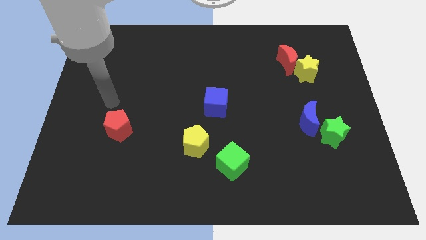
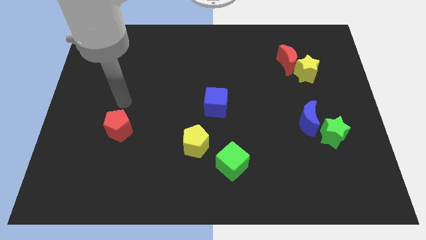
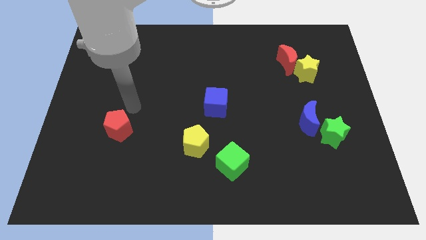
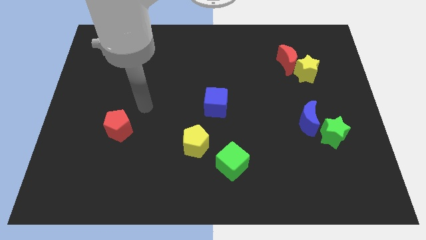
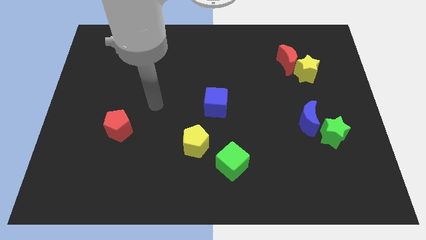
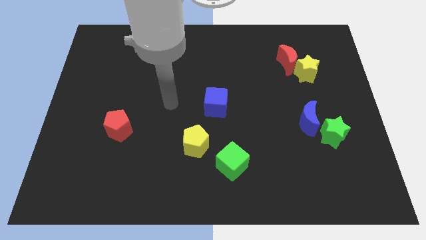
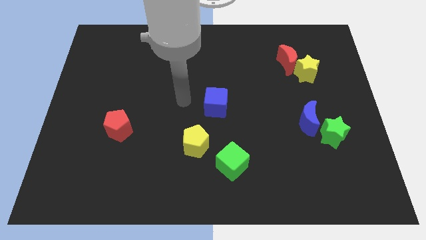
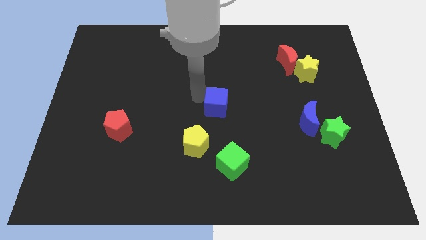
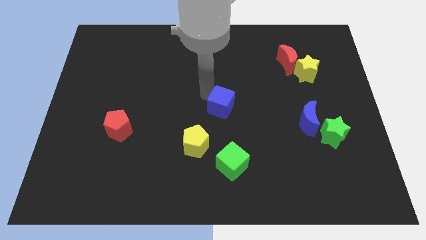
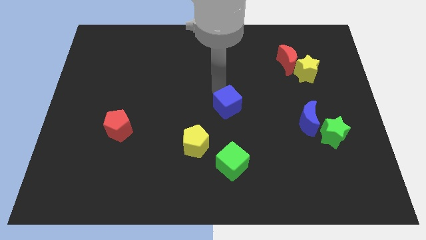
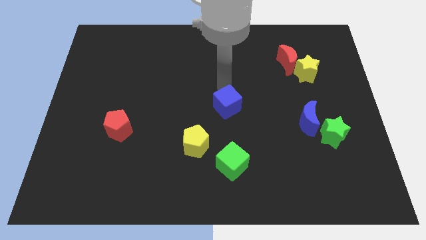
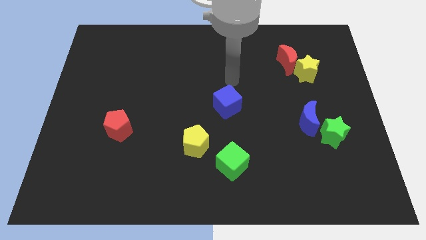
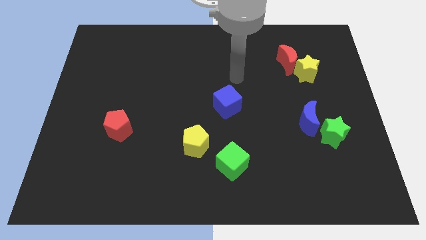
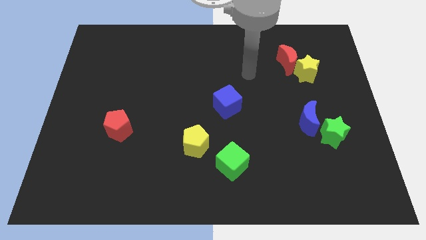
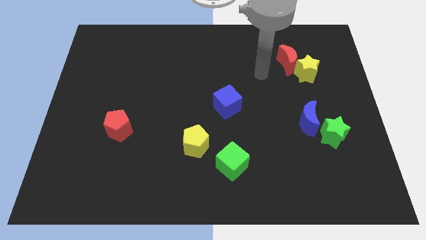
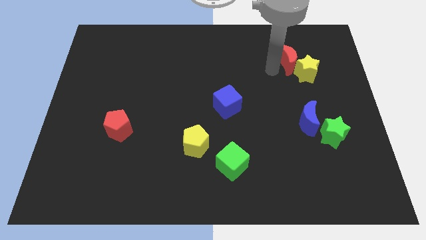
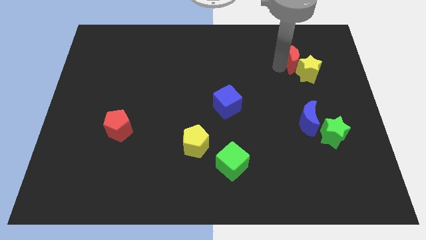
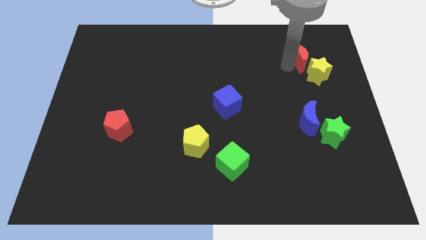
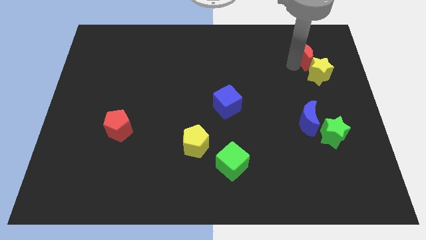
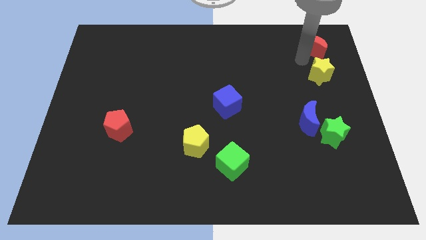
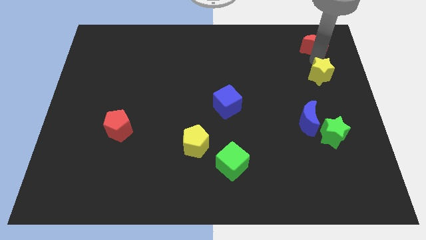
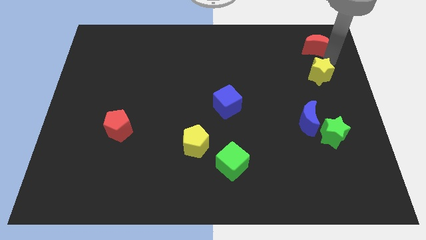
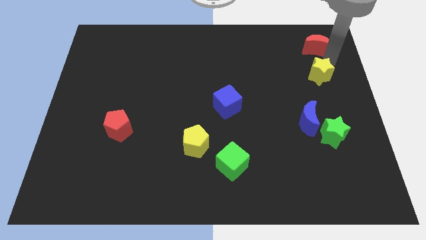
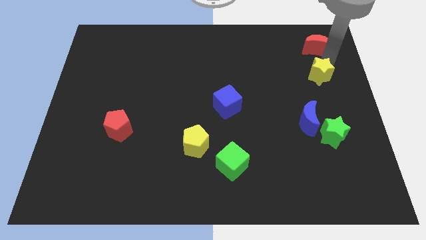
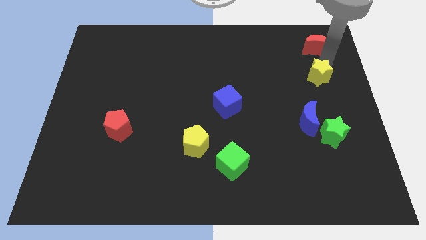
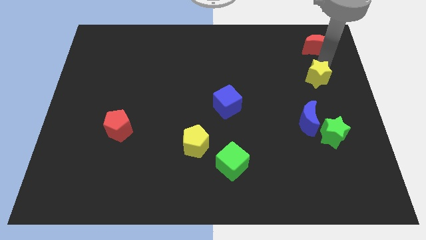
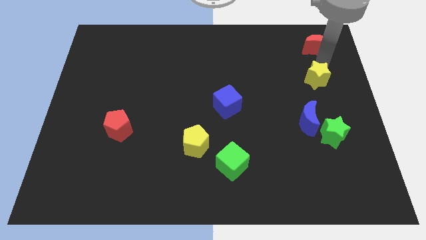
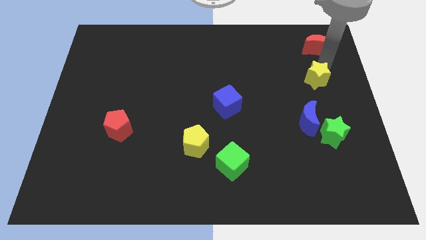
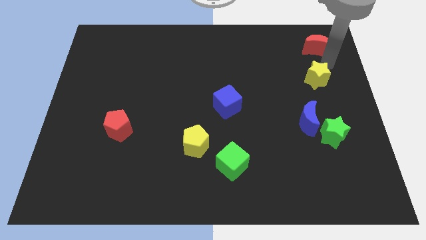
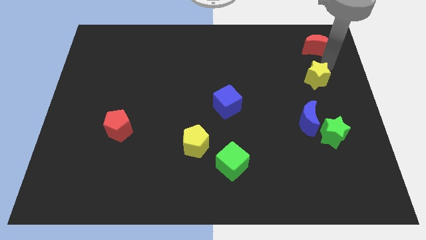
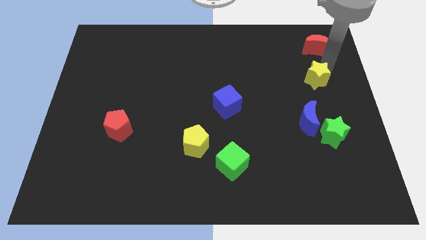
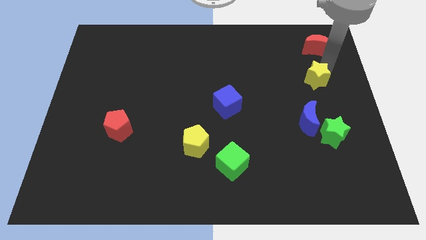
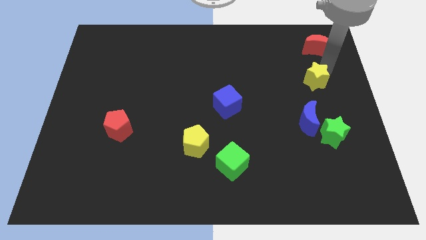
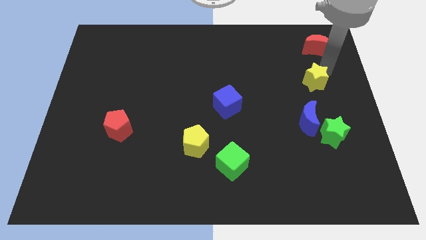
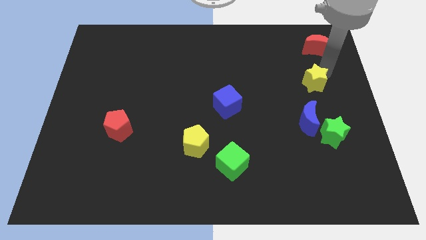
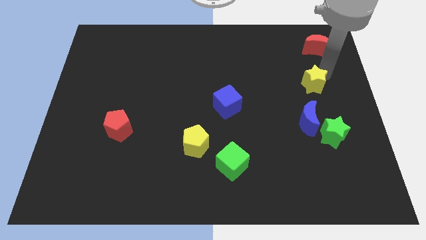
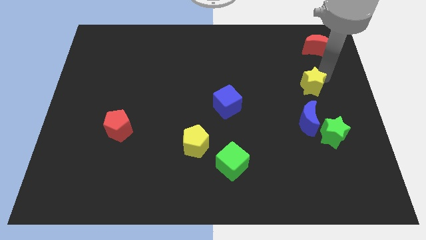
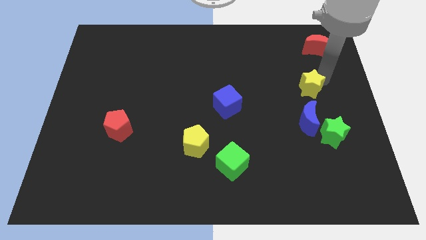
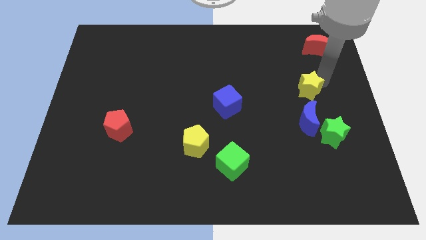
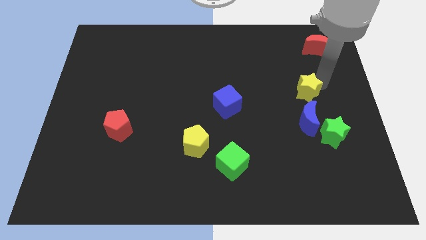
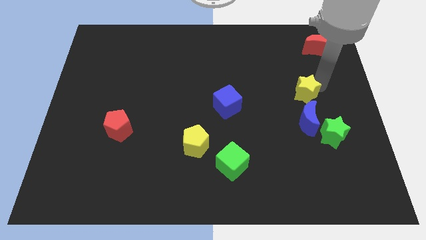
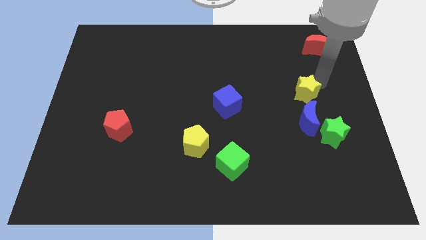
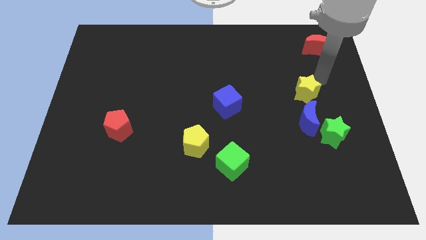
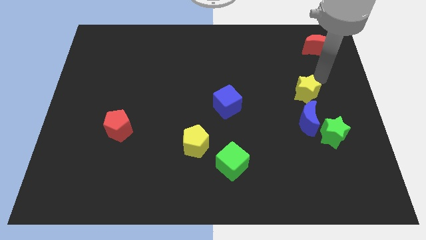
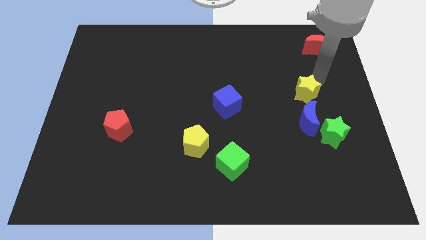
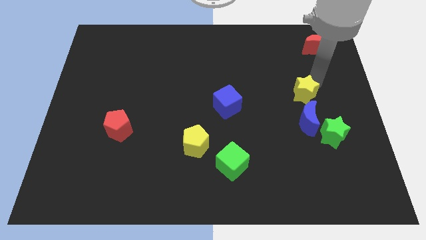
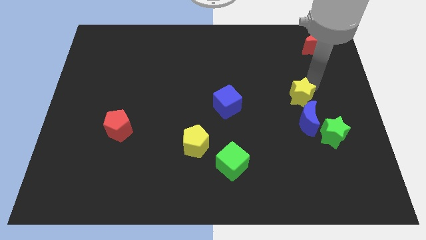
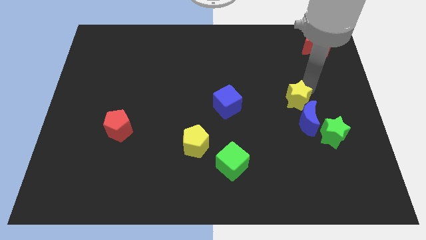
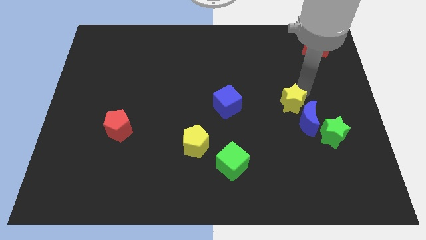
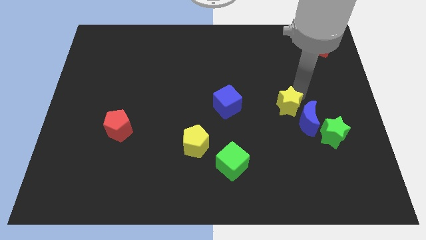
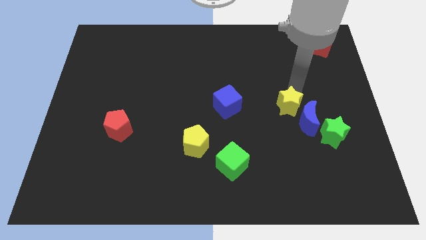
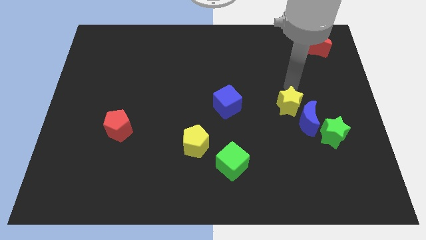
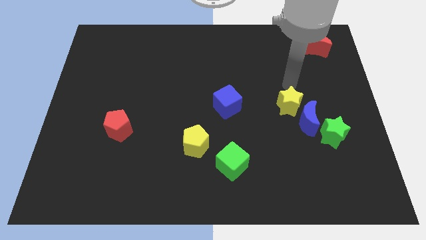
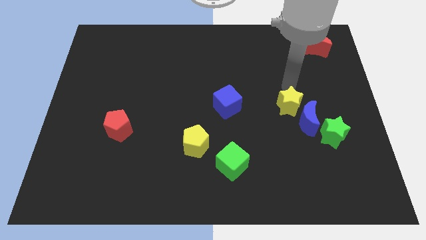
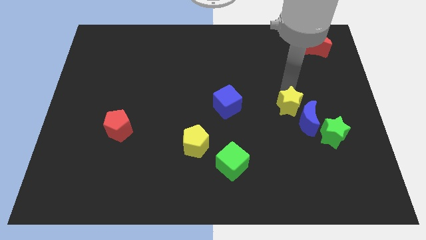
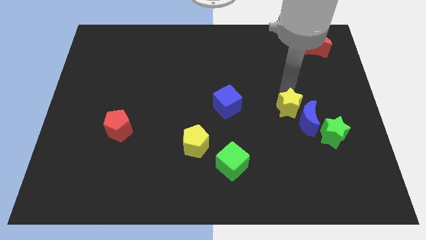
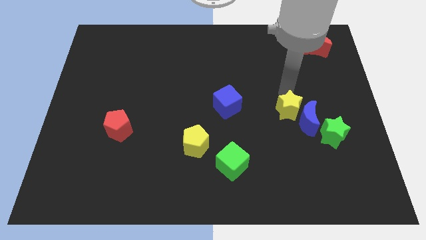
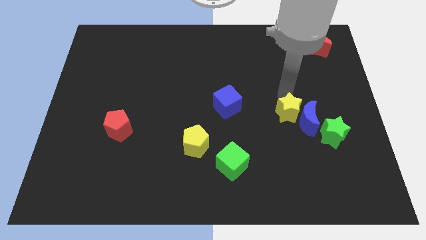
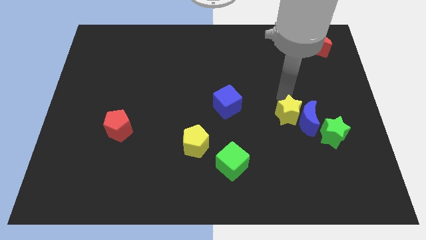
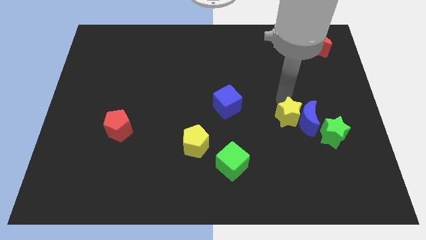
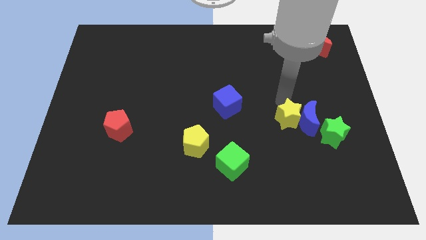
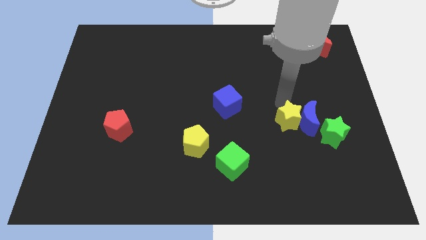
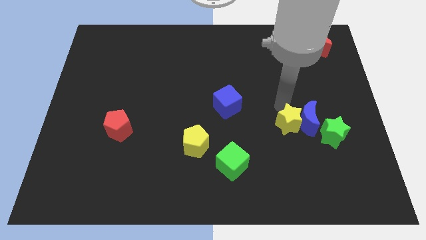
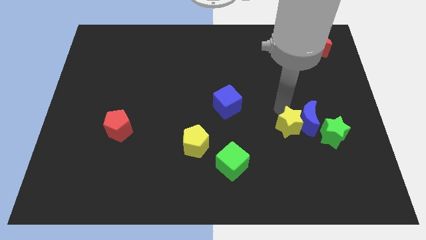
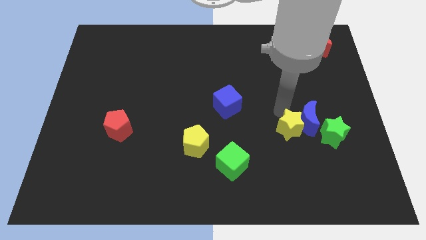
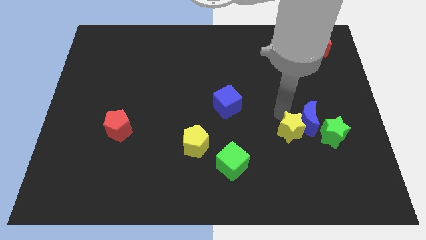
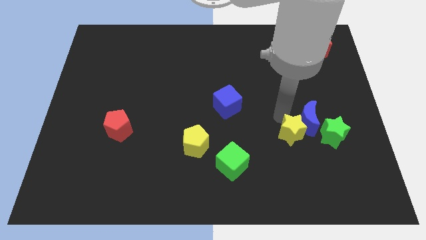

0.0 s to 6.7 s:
put the yellow star to the bottom of the blue moon
